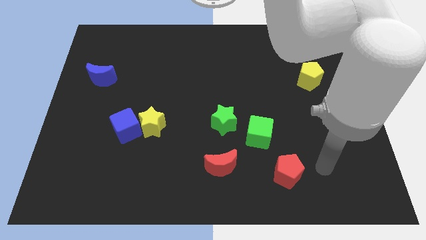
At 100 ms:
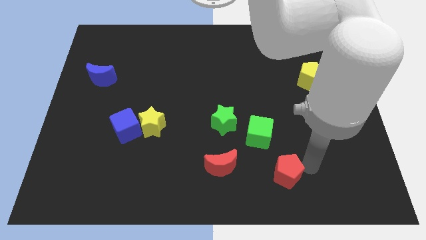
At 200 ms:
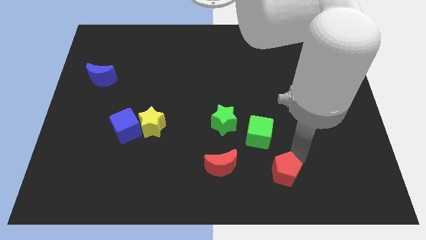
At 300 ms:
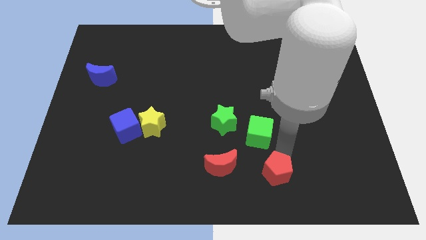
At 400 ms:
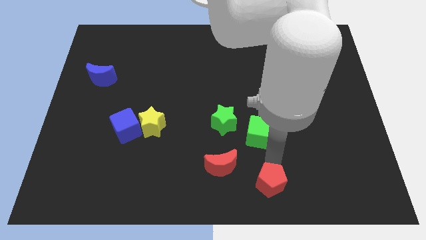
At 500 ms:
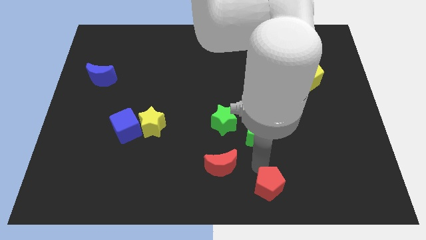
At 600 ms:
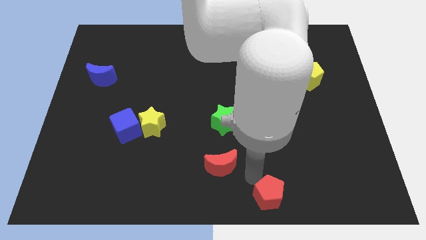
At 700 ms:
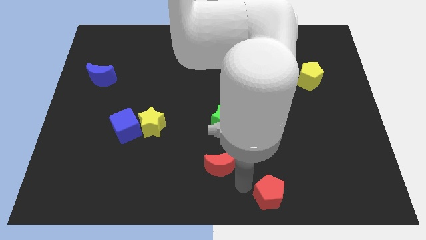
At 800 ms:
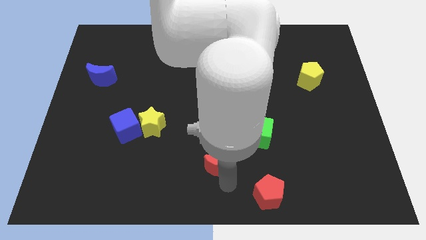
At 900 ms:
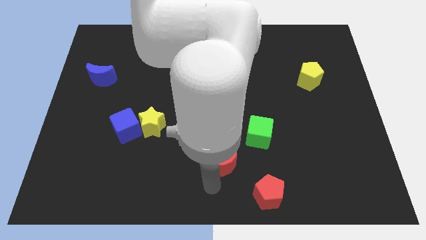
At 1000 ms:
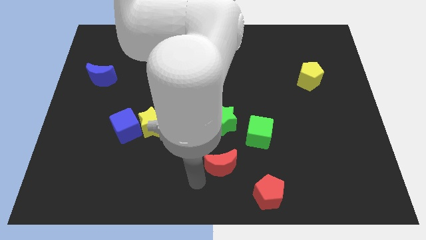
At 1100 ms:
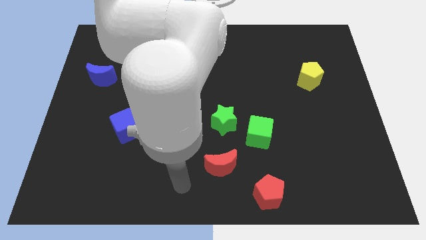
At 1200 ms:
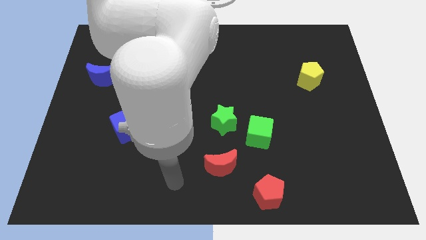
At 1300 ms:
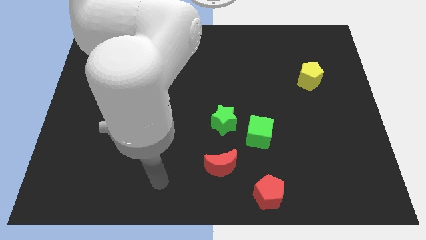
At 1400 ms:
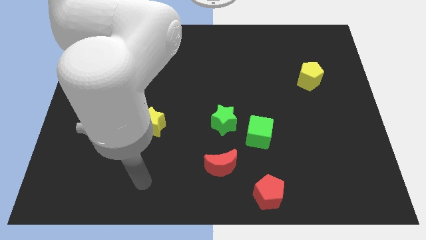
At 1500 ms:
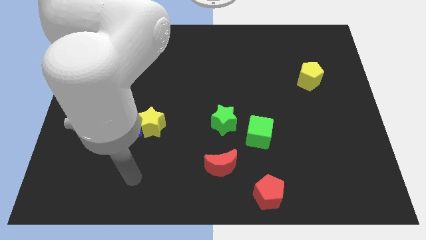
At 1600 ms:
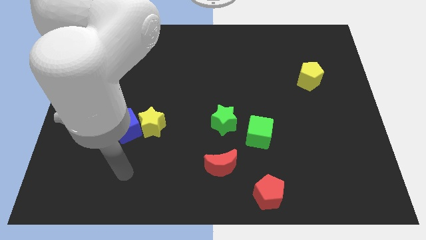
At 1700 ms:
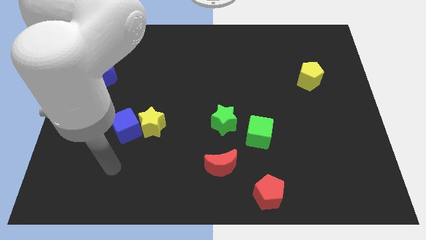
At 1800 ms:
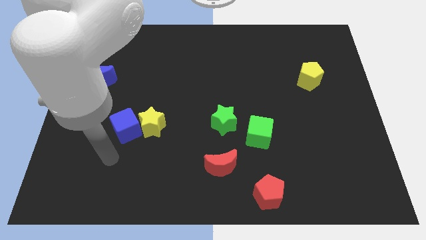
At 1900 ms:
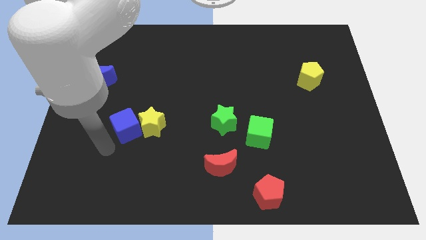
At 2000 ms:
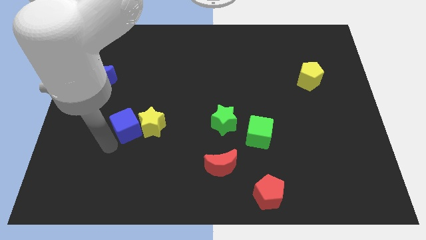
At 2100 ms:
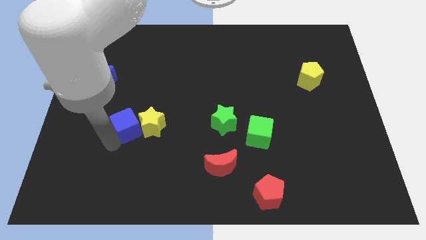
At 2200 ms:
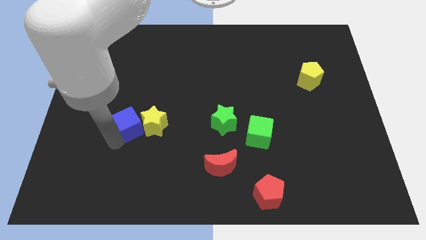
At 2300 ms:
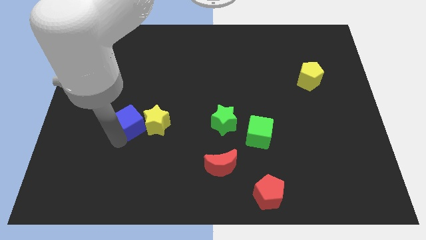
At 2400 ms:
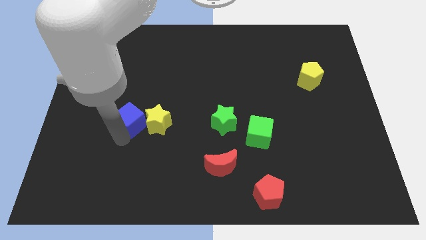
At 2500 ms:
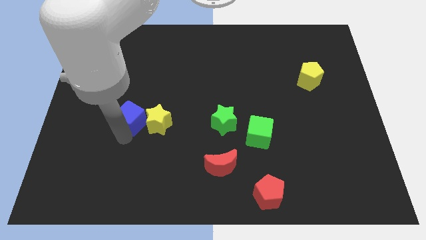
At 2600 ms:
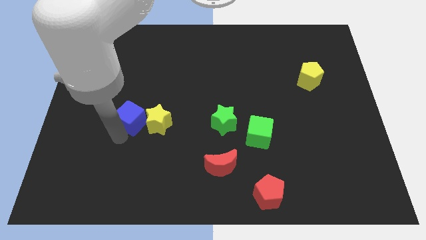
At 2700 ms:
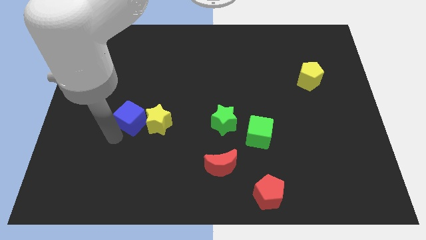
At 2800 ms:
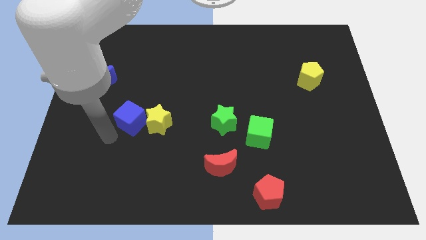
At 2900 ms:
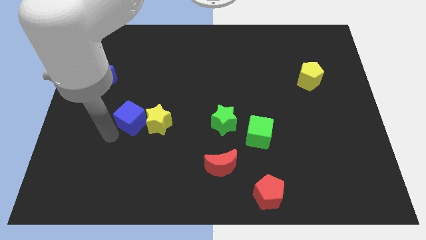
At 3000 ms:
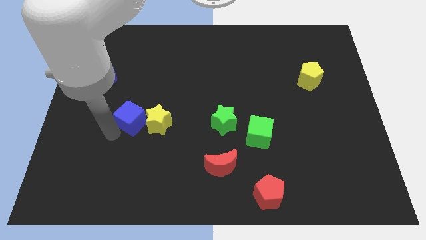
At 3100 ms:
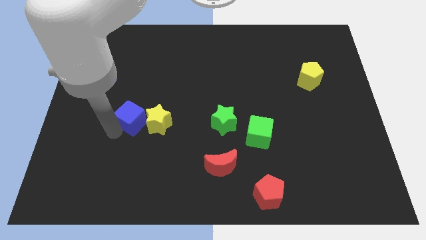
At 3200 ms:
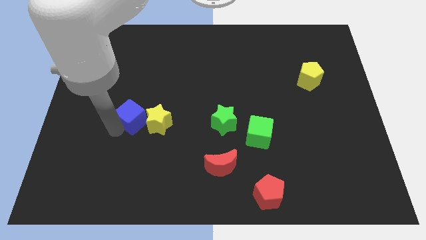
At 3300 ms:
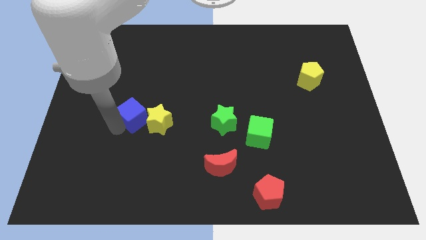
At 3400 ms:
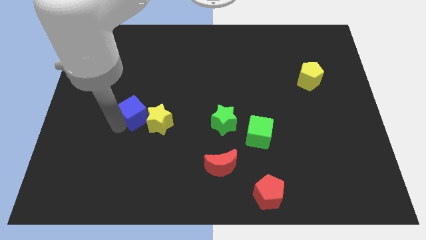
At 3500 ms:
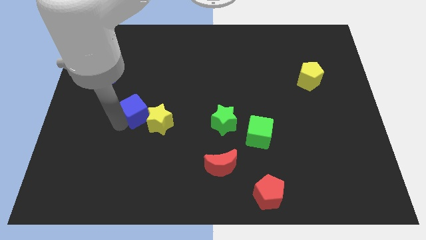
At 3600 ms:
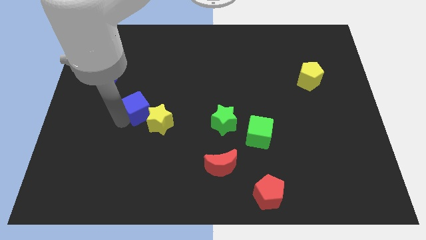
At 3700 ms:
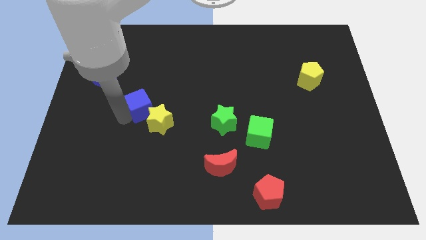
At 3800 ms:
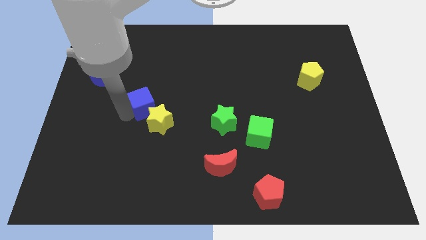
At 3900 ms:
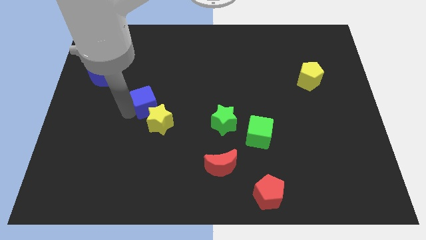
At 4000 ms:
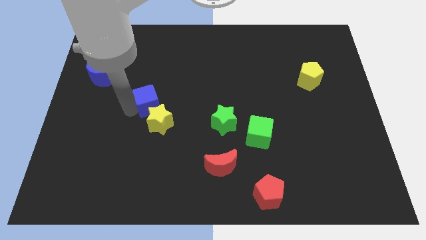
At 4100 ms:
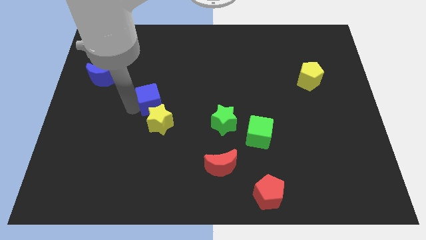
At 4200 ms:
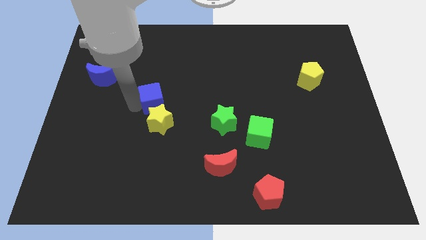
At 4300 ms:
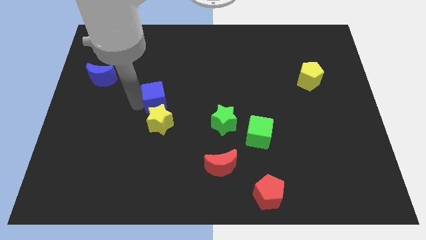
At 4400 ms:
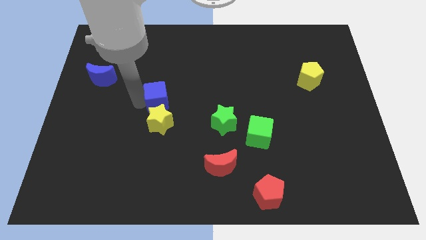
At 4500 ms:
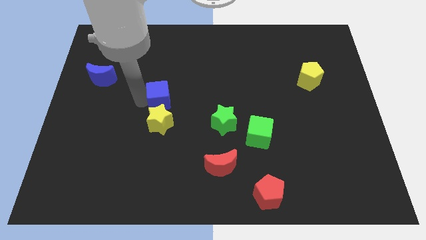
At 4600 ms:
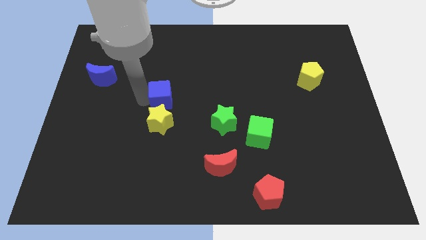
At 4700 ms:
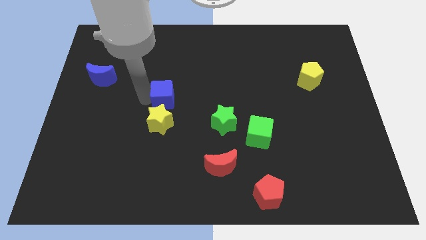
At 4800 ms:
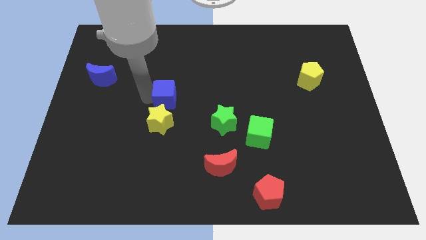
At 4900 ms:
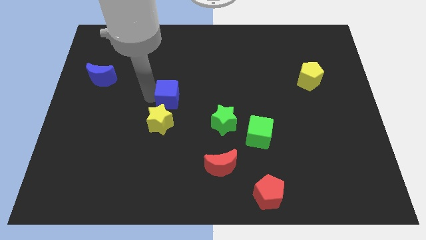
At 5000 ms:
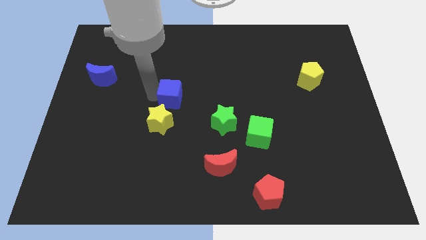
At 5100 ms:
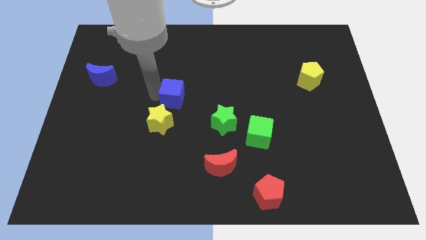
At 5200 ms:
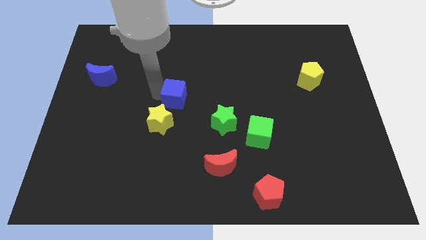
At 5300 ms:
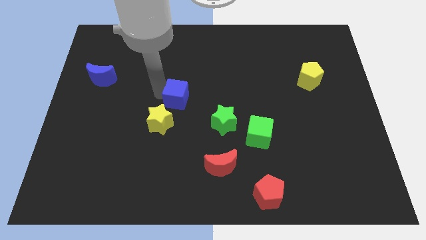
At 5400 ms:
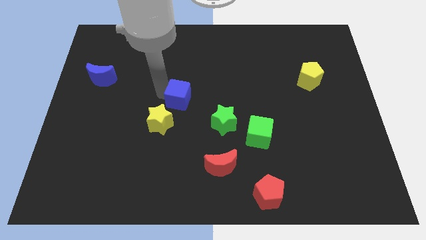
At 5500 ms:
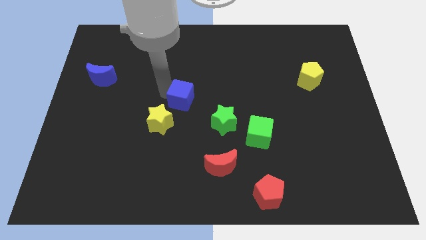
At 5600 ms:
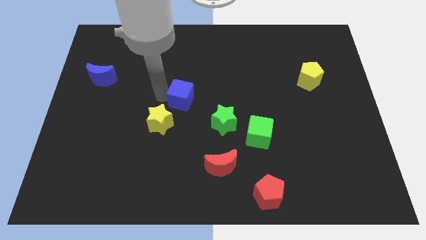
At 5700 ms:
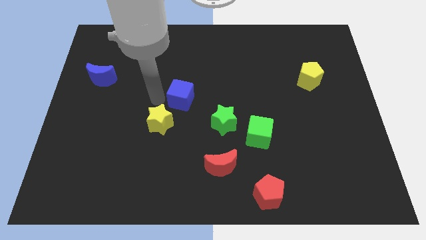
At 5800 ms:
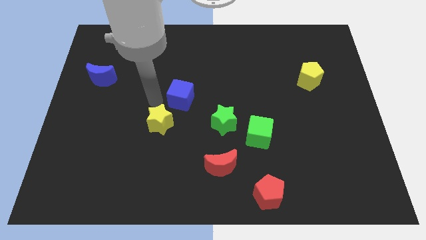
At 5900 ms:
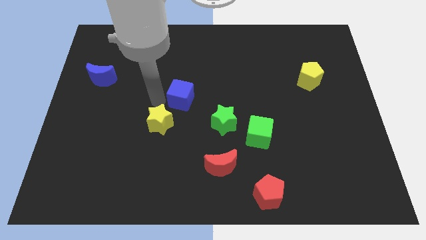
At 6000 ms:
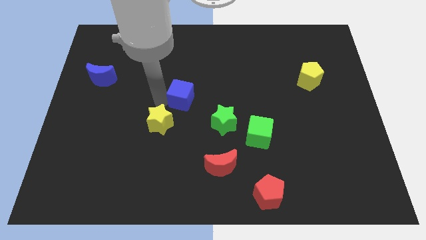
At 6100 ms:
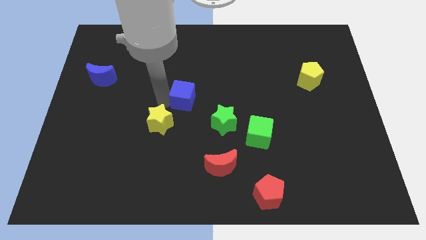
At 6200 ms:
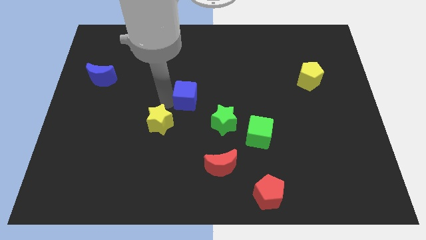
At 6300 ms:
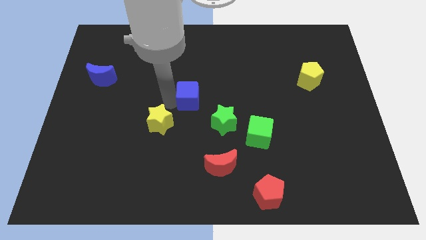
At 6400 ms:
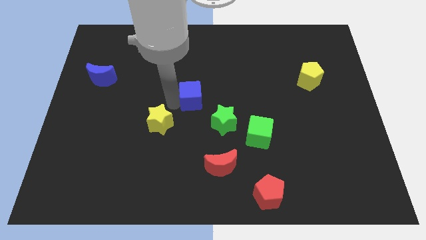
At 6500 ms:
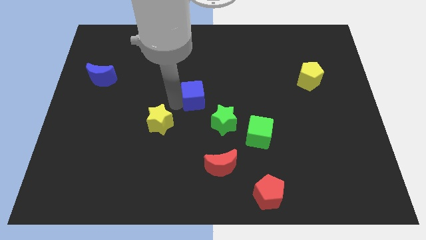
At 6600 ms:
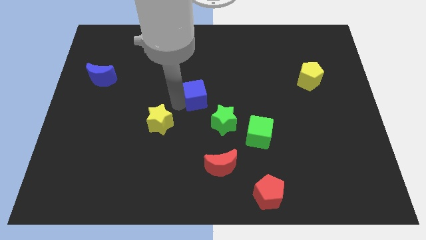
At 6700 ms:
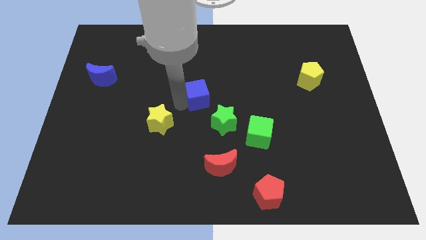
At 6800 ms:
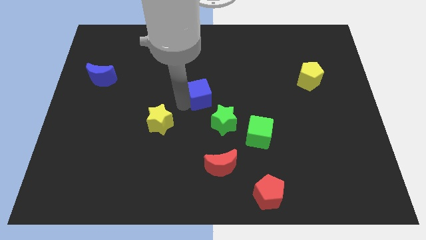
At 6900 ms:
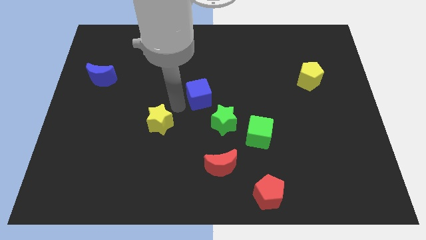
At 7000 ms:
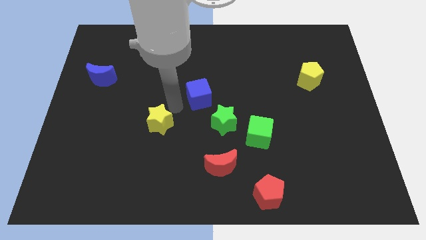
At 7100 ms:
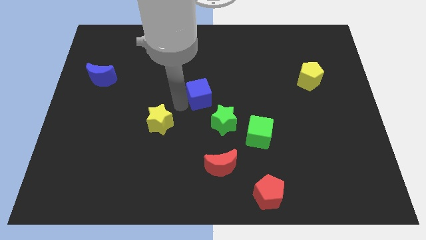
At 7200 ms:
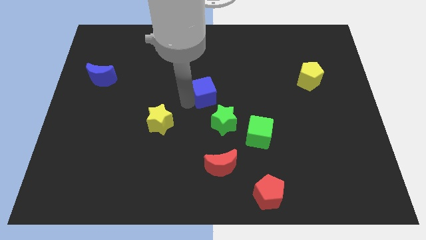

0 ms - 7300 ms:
slide the blue cube to the top of the green star

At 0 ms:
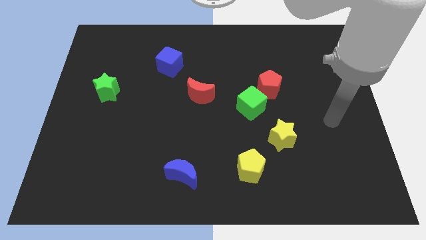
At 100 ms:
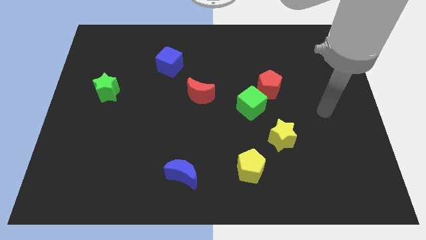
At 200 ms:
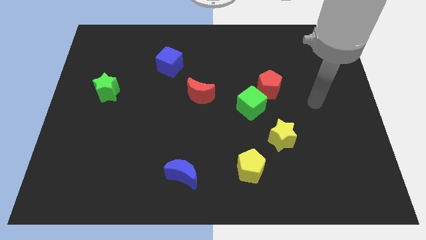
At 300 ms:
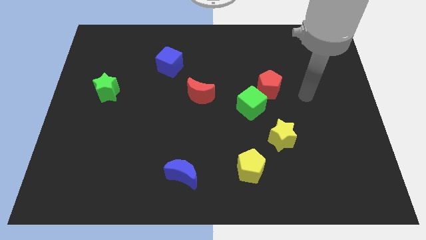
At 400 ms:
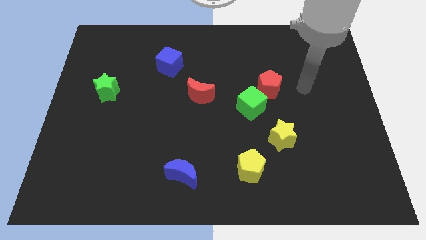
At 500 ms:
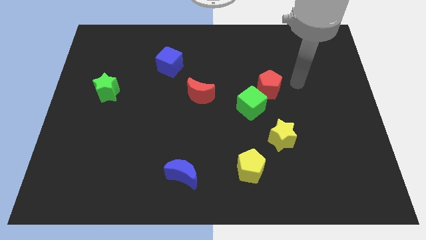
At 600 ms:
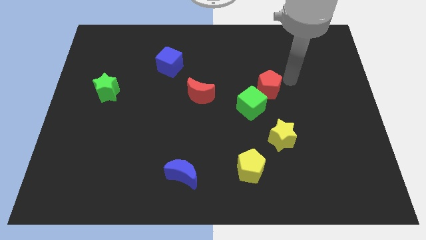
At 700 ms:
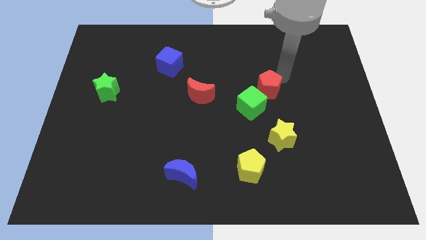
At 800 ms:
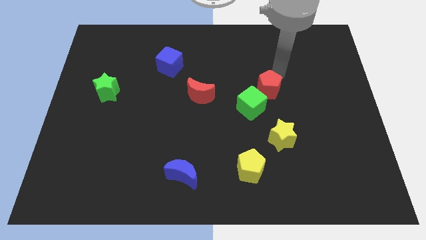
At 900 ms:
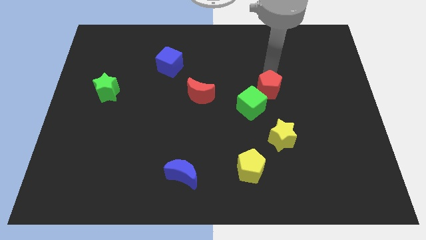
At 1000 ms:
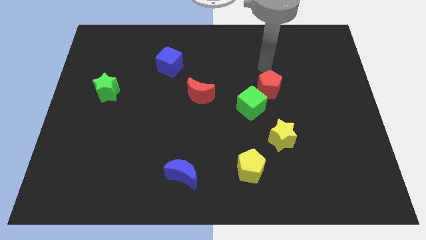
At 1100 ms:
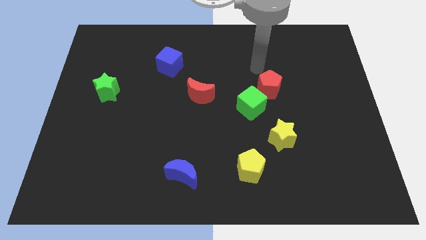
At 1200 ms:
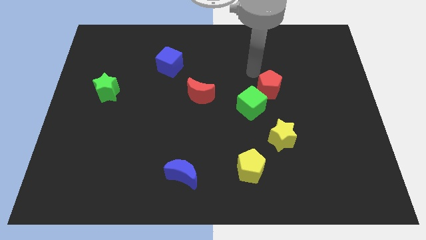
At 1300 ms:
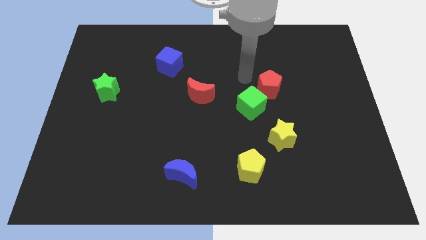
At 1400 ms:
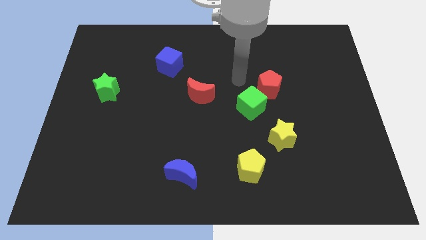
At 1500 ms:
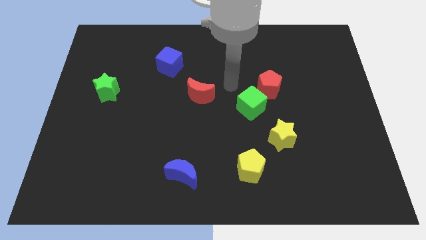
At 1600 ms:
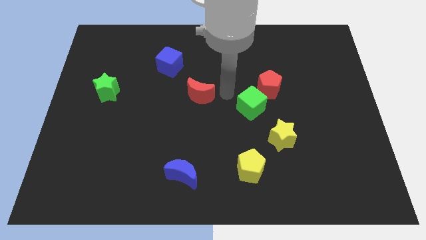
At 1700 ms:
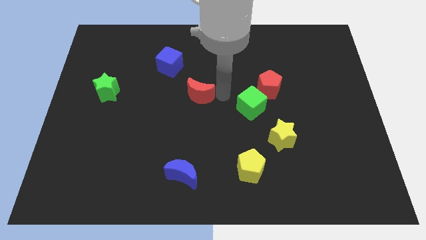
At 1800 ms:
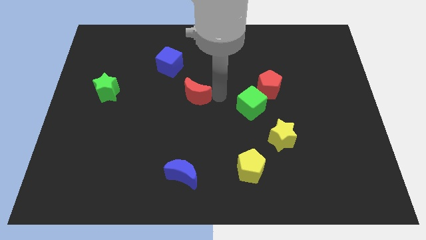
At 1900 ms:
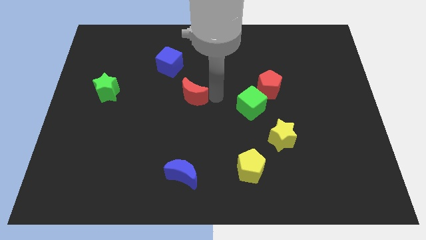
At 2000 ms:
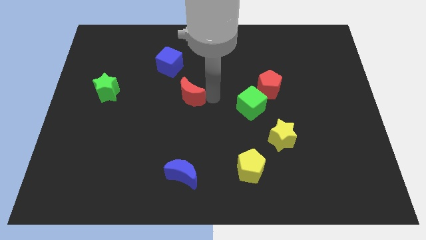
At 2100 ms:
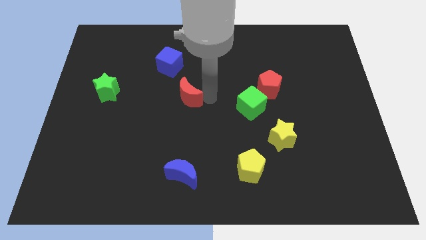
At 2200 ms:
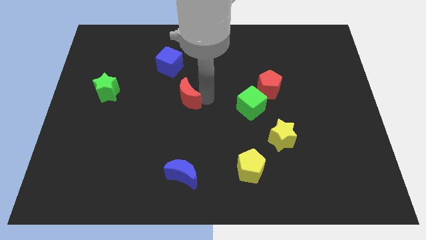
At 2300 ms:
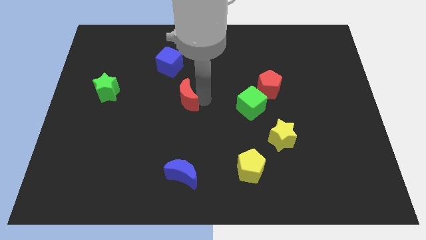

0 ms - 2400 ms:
move the red moon below the blue cube
